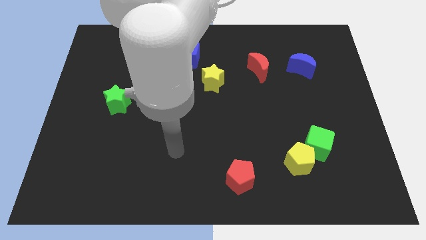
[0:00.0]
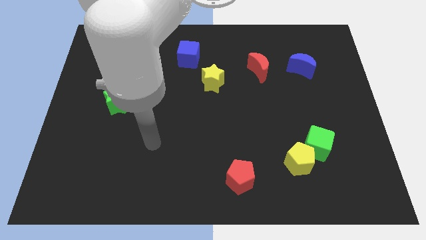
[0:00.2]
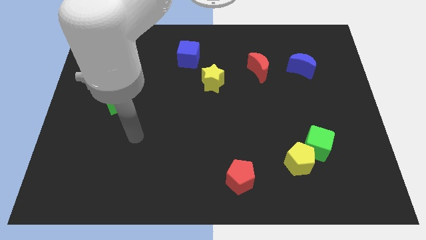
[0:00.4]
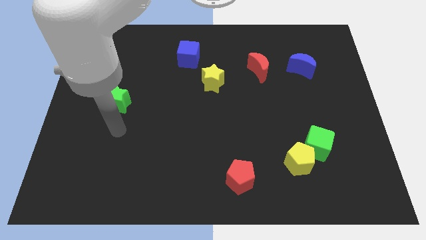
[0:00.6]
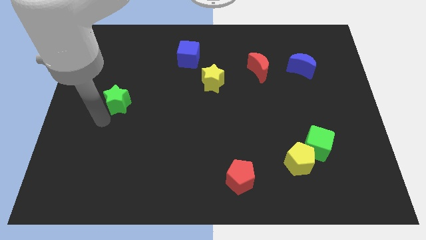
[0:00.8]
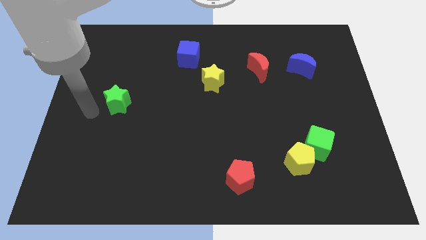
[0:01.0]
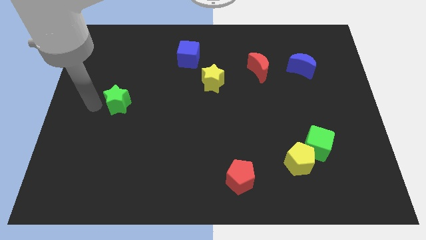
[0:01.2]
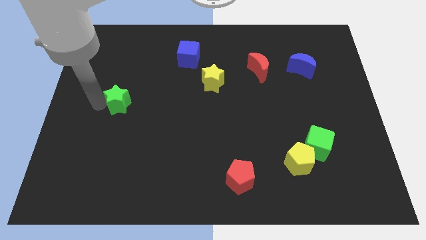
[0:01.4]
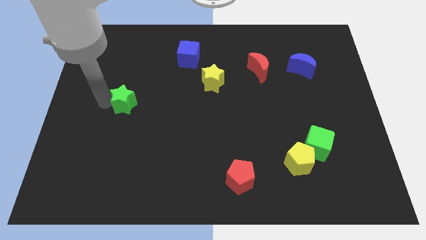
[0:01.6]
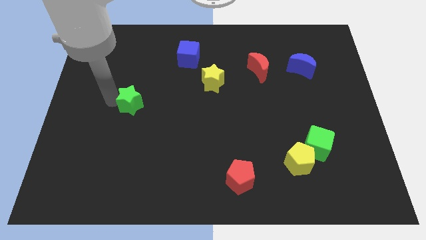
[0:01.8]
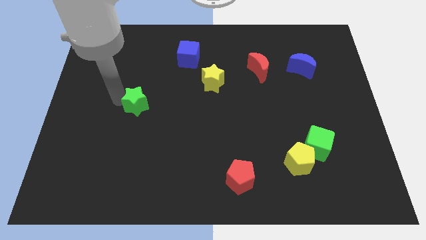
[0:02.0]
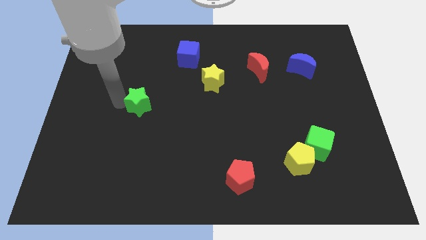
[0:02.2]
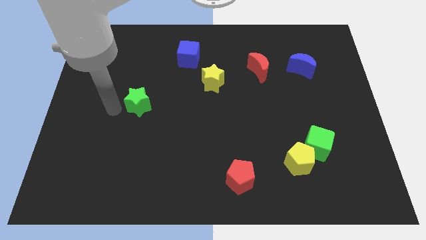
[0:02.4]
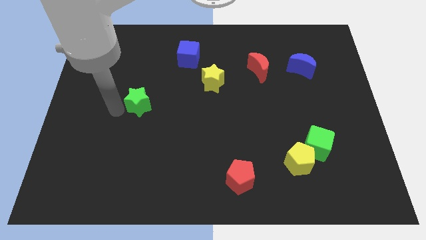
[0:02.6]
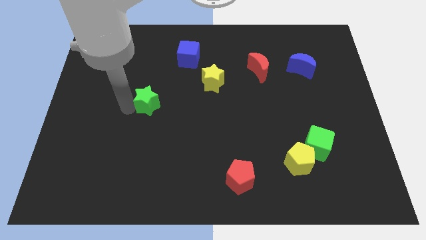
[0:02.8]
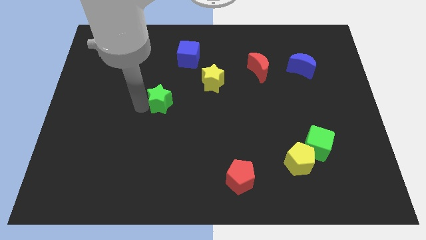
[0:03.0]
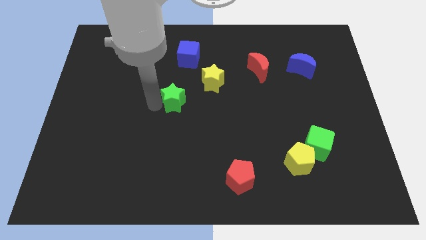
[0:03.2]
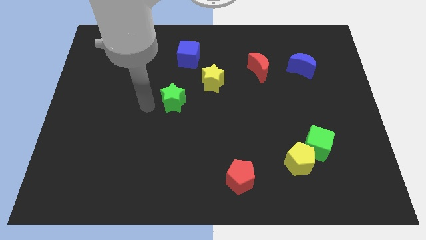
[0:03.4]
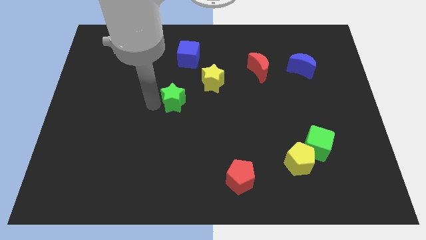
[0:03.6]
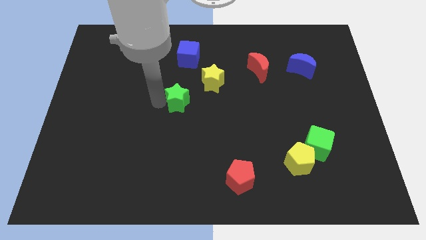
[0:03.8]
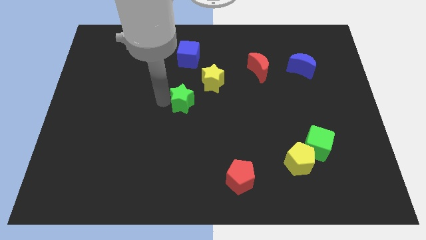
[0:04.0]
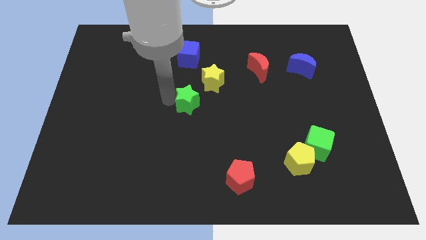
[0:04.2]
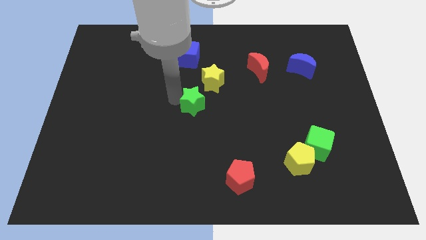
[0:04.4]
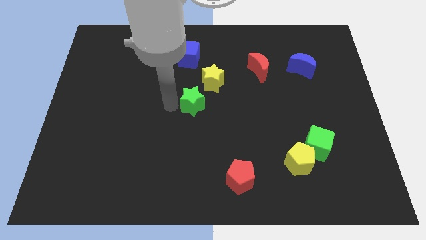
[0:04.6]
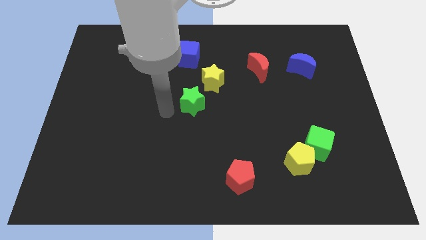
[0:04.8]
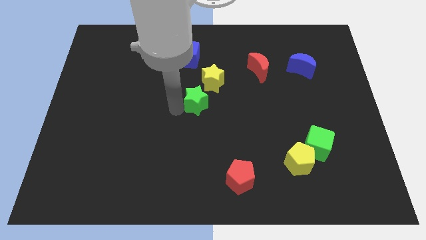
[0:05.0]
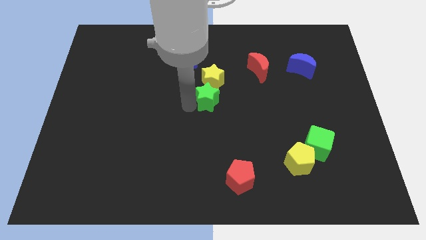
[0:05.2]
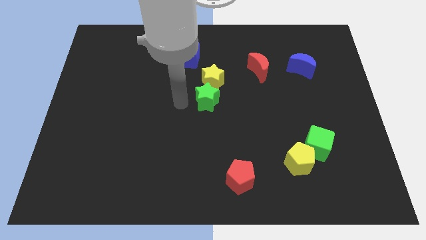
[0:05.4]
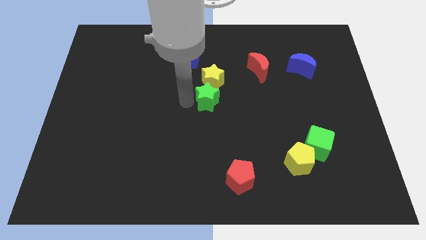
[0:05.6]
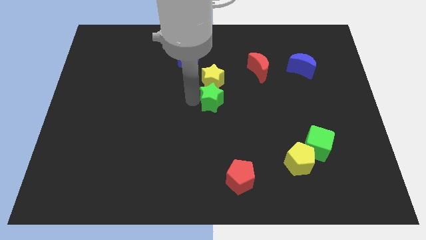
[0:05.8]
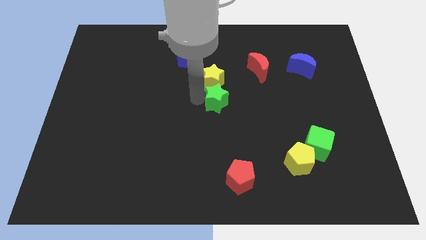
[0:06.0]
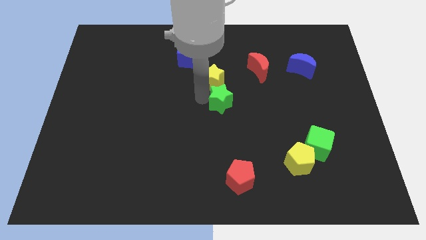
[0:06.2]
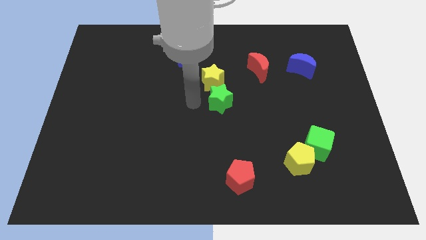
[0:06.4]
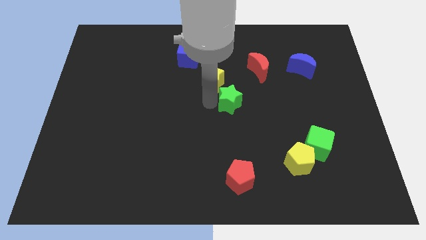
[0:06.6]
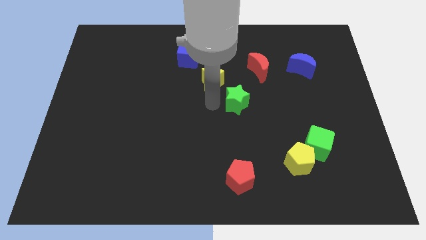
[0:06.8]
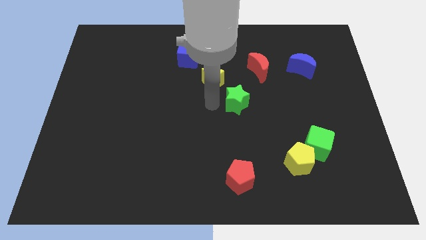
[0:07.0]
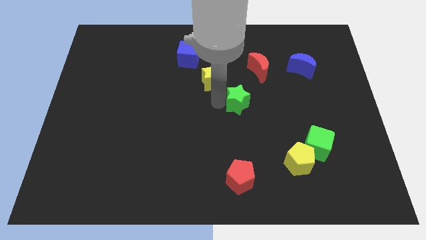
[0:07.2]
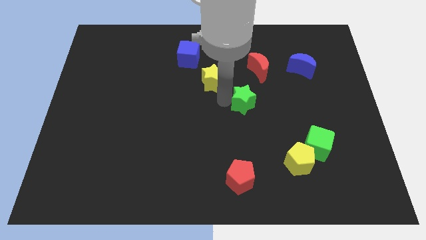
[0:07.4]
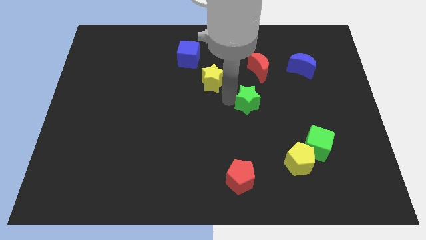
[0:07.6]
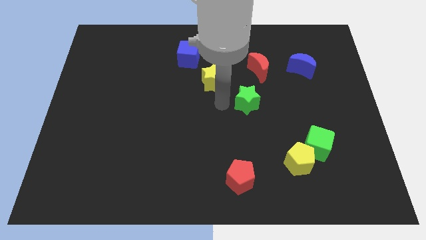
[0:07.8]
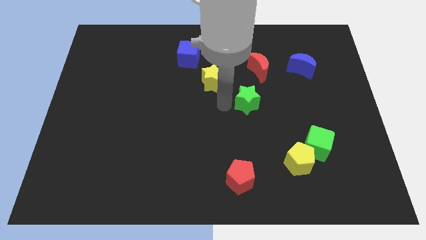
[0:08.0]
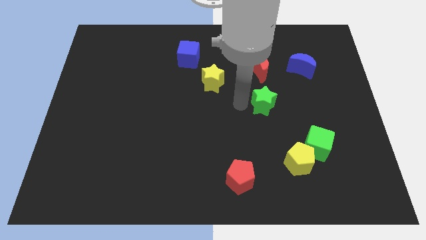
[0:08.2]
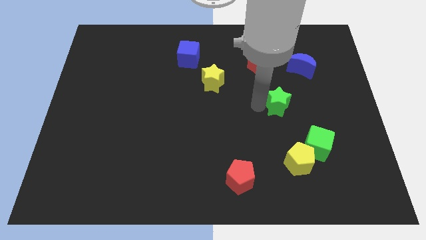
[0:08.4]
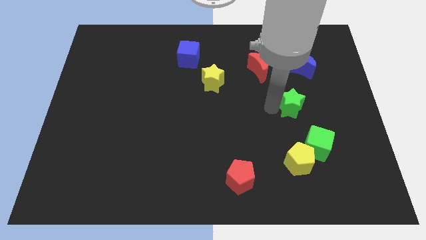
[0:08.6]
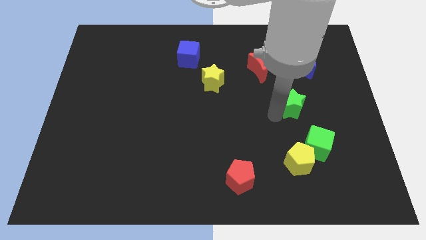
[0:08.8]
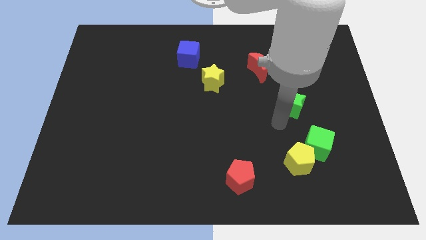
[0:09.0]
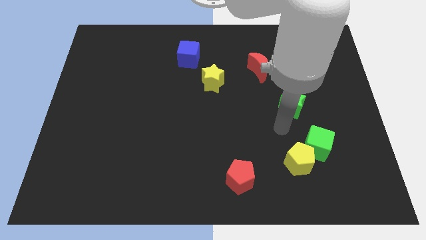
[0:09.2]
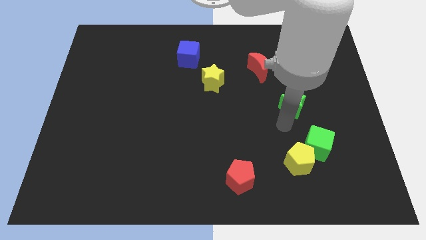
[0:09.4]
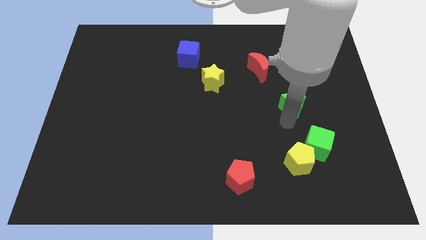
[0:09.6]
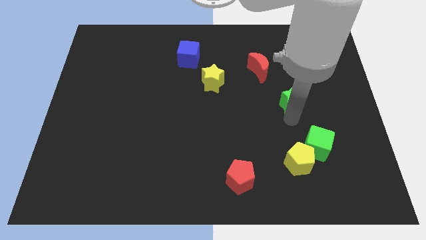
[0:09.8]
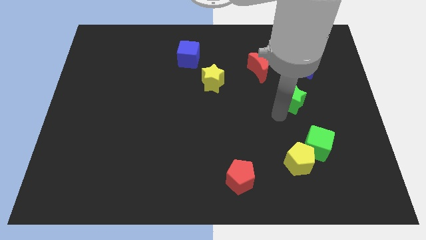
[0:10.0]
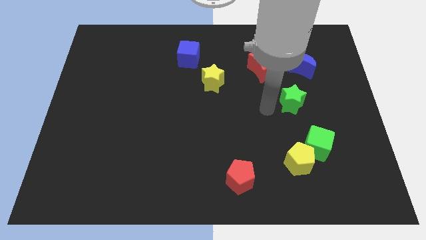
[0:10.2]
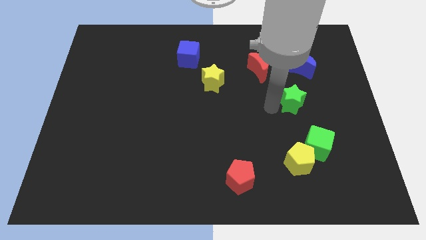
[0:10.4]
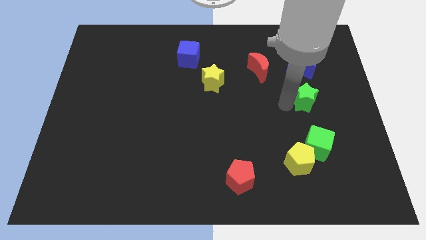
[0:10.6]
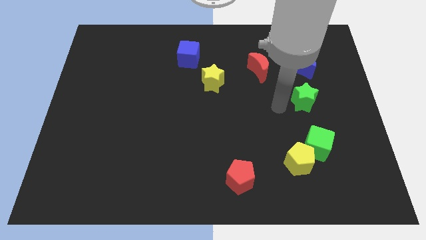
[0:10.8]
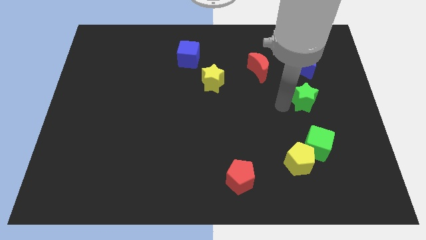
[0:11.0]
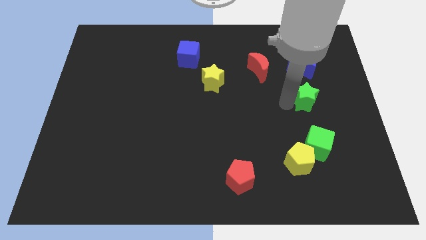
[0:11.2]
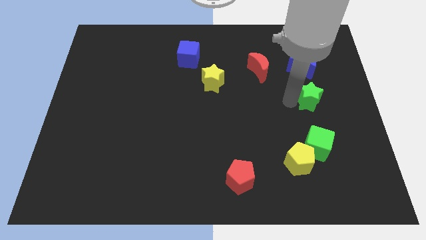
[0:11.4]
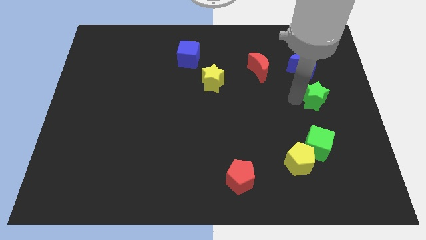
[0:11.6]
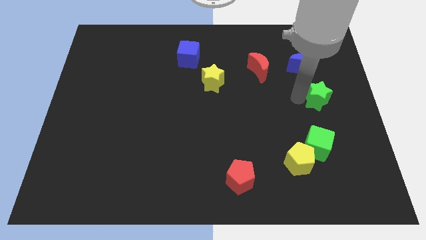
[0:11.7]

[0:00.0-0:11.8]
slide the green star to the center right

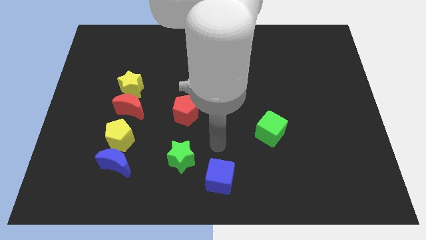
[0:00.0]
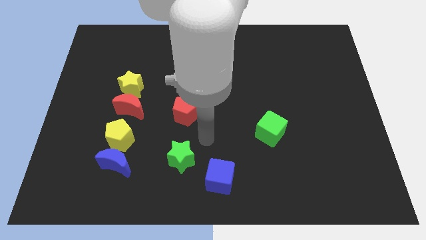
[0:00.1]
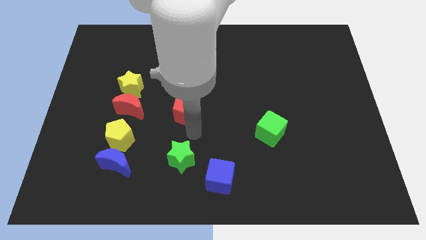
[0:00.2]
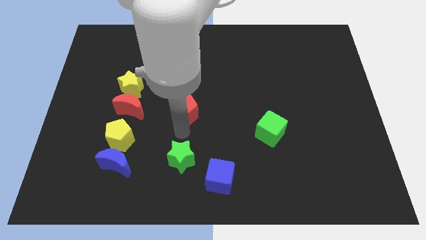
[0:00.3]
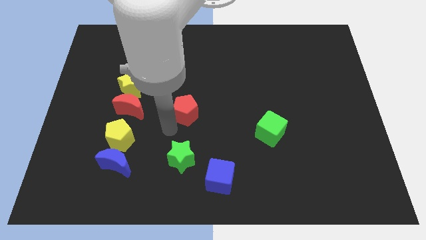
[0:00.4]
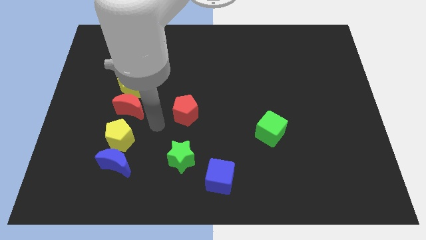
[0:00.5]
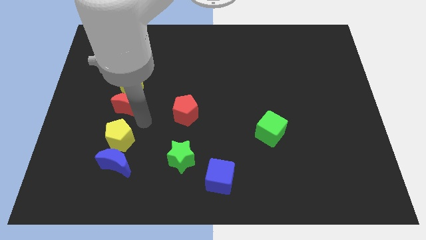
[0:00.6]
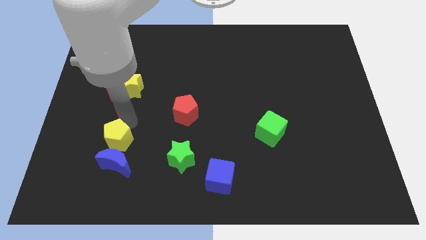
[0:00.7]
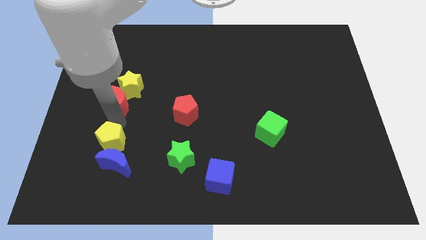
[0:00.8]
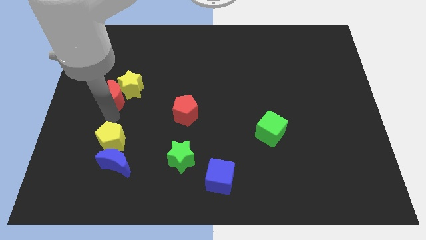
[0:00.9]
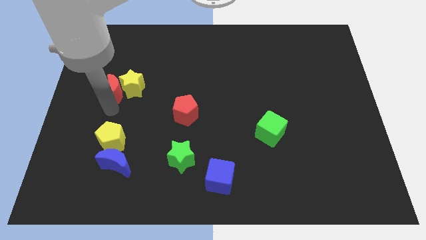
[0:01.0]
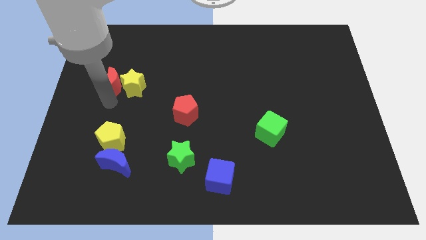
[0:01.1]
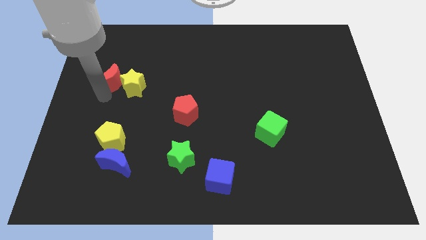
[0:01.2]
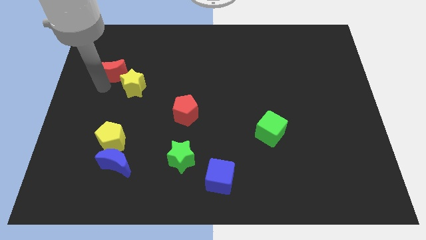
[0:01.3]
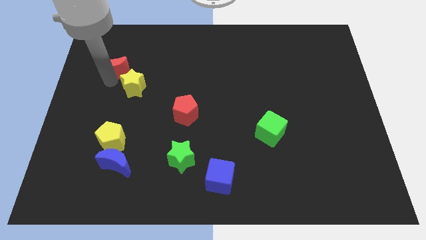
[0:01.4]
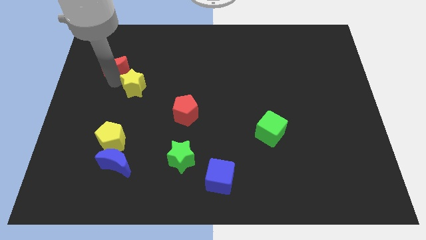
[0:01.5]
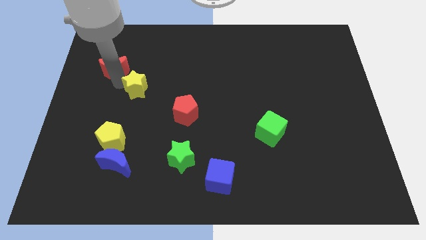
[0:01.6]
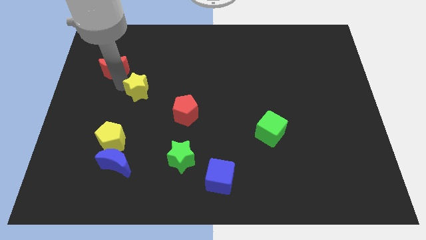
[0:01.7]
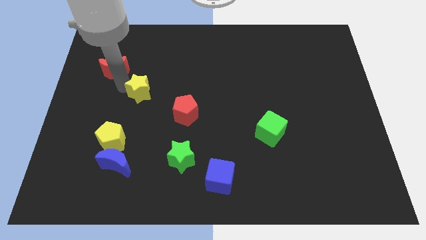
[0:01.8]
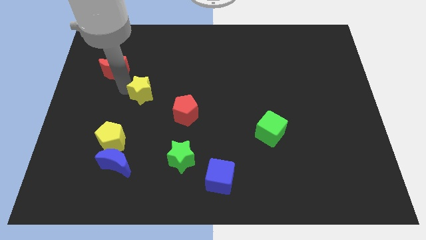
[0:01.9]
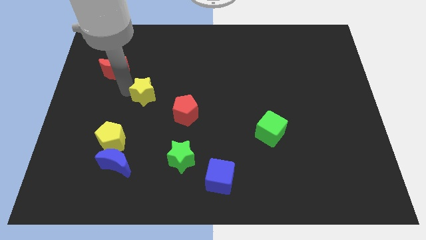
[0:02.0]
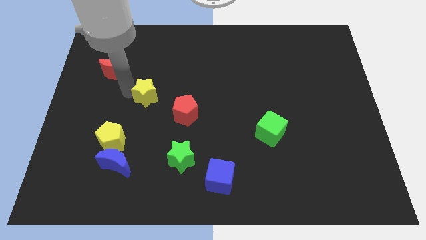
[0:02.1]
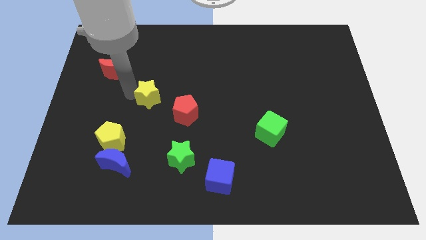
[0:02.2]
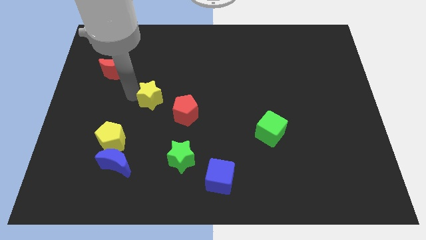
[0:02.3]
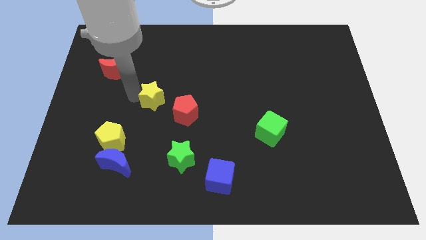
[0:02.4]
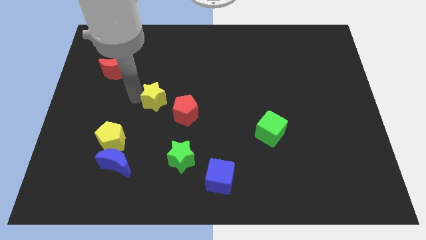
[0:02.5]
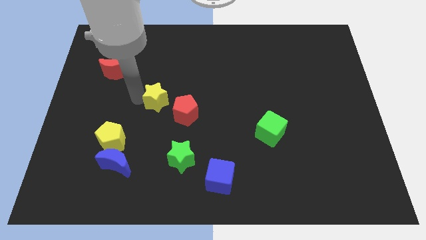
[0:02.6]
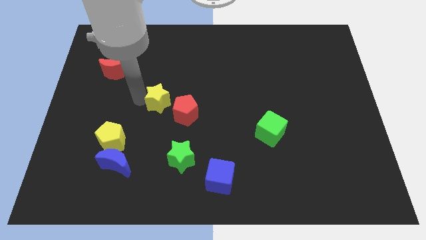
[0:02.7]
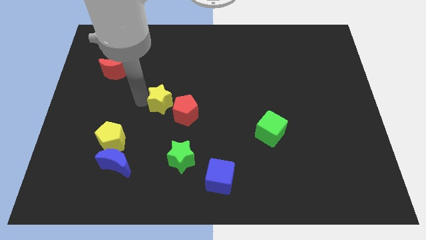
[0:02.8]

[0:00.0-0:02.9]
put the yellow star to the middle of the board
